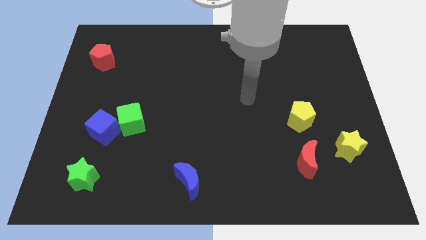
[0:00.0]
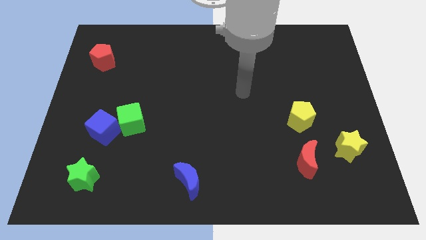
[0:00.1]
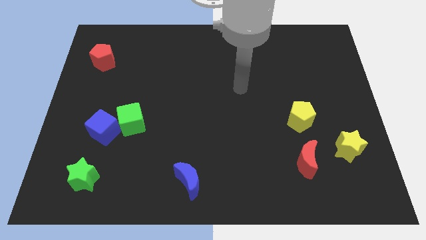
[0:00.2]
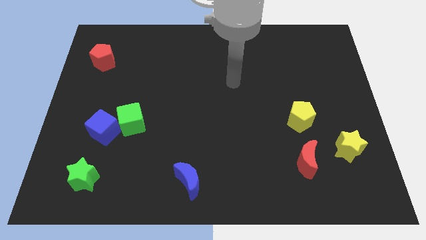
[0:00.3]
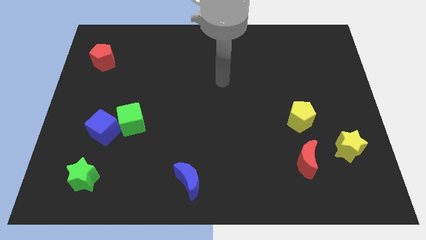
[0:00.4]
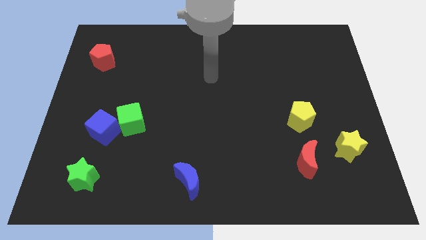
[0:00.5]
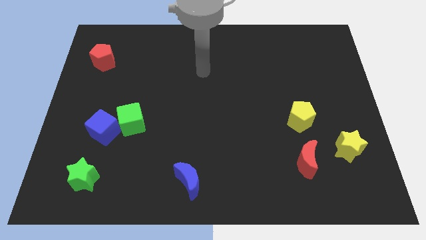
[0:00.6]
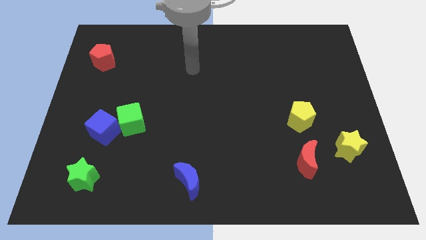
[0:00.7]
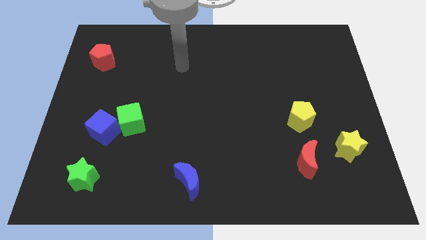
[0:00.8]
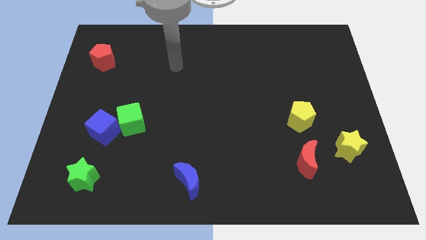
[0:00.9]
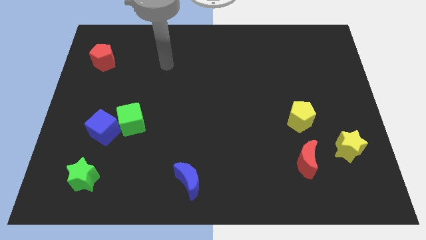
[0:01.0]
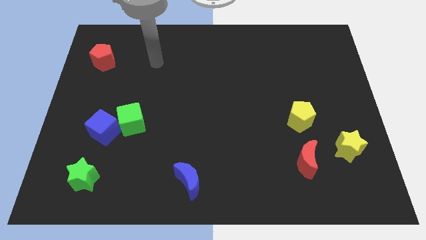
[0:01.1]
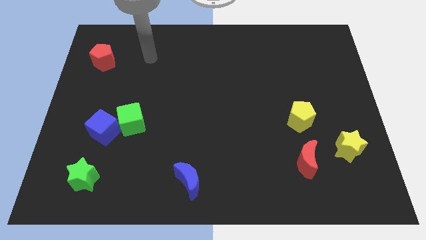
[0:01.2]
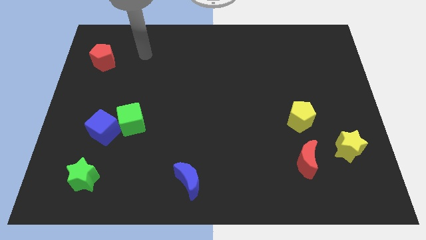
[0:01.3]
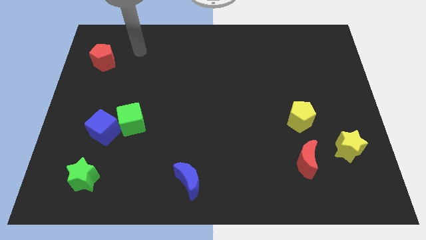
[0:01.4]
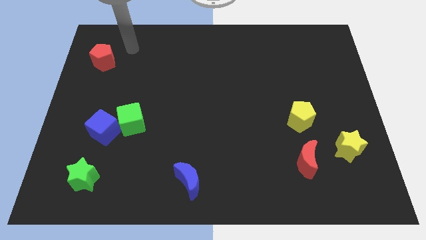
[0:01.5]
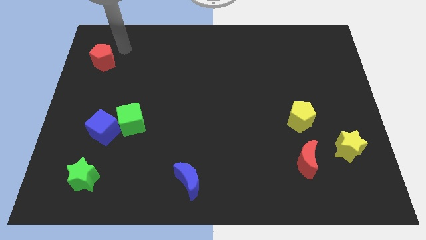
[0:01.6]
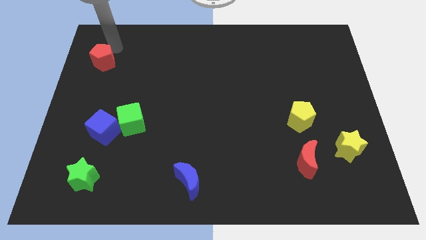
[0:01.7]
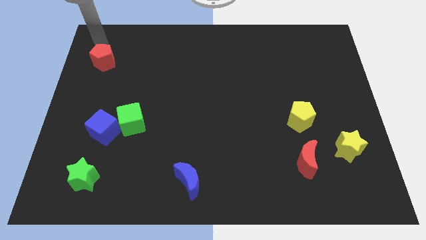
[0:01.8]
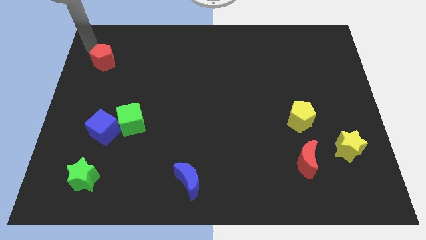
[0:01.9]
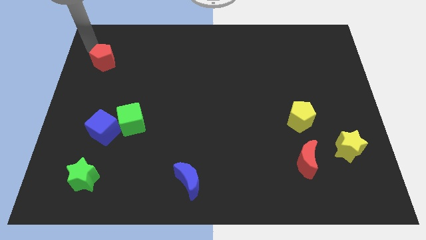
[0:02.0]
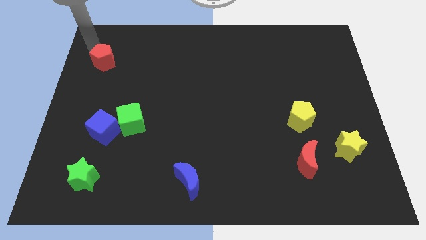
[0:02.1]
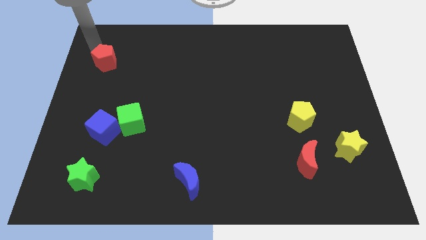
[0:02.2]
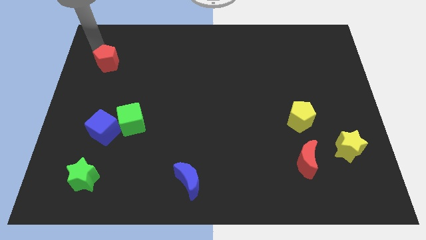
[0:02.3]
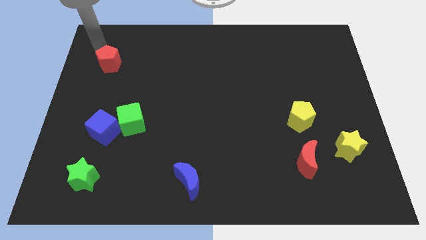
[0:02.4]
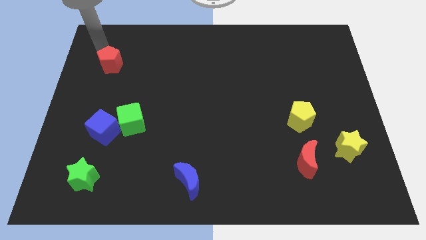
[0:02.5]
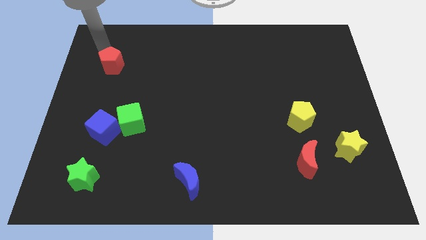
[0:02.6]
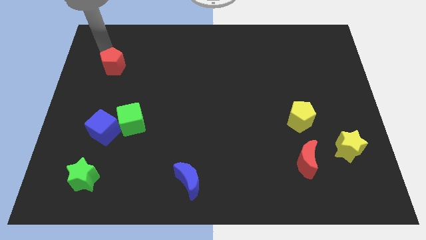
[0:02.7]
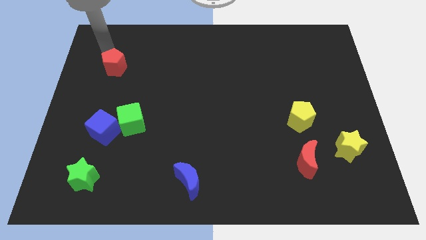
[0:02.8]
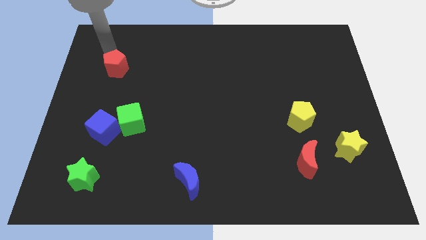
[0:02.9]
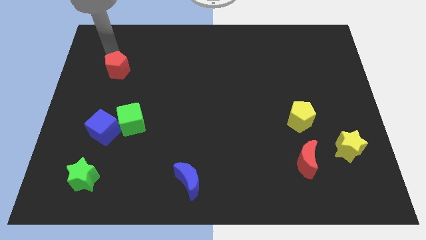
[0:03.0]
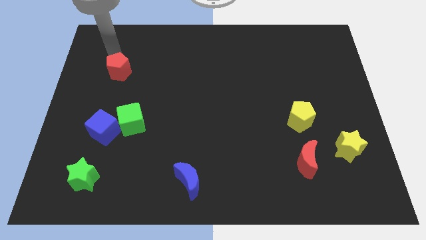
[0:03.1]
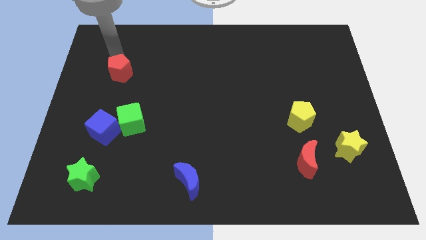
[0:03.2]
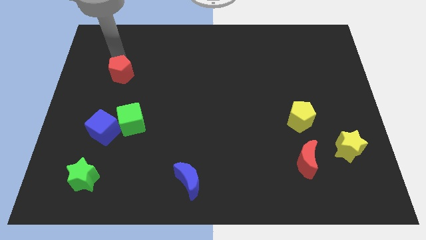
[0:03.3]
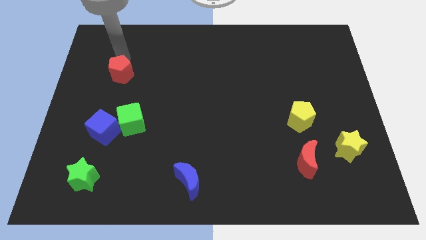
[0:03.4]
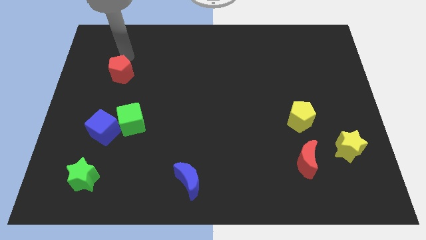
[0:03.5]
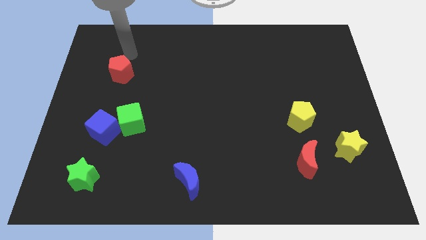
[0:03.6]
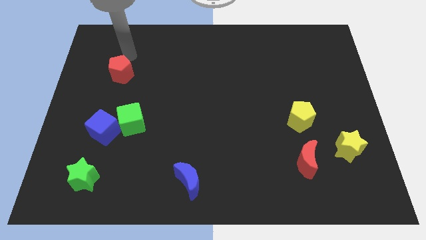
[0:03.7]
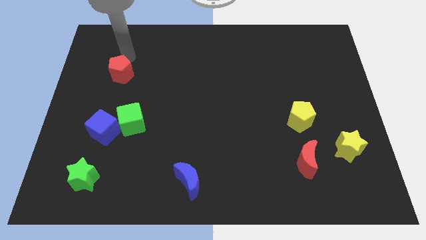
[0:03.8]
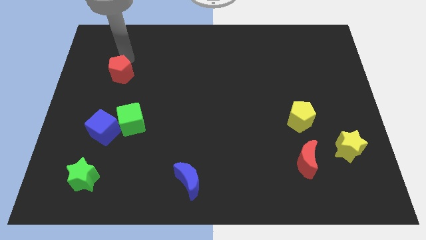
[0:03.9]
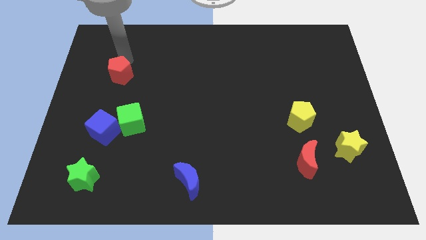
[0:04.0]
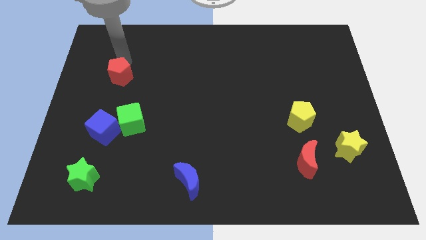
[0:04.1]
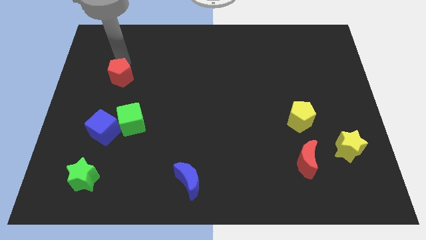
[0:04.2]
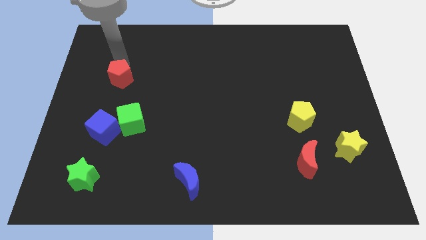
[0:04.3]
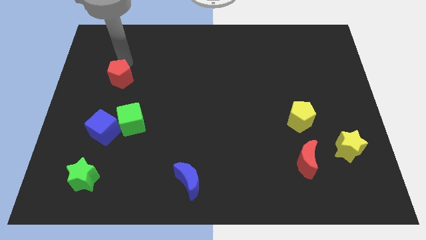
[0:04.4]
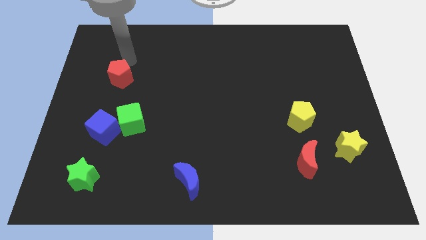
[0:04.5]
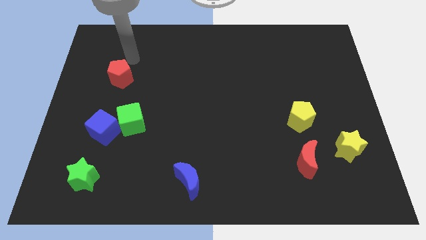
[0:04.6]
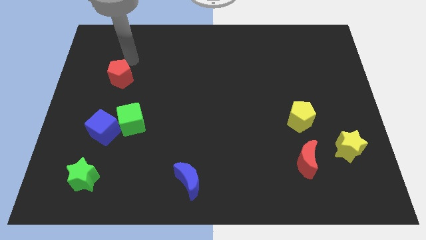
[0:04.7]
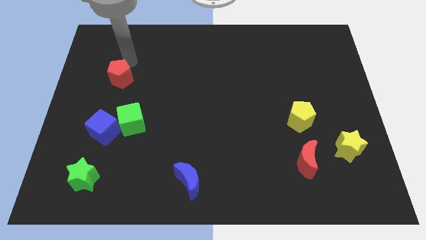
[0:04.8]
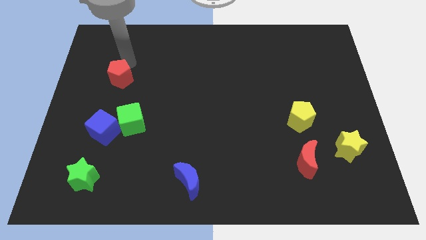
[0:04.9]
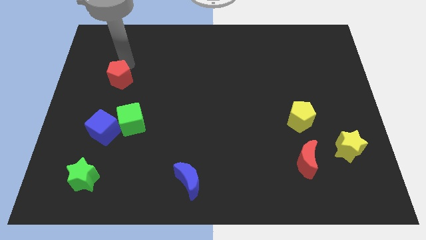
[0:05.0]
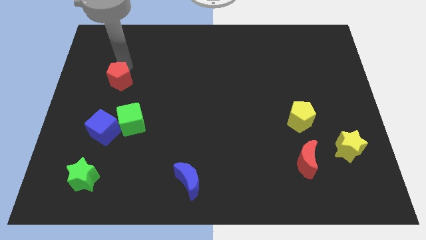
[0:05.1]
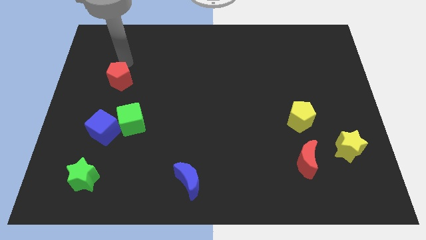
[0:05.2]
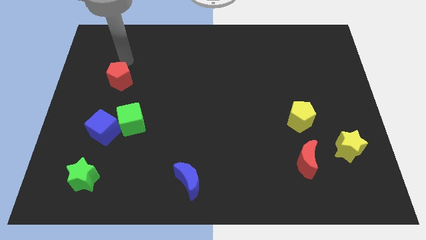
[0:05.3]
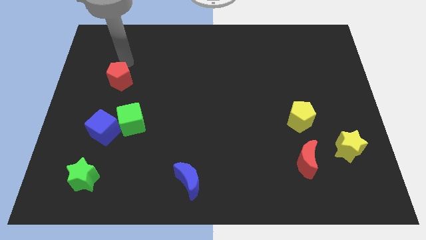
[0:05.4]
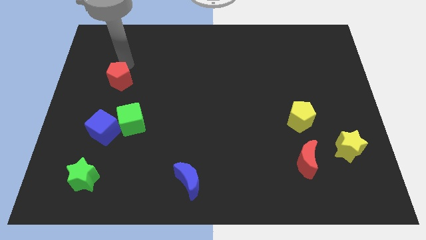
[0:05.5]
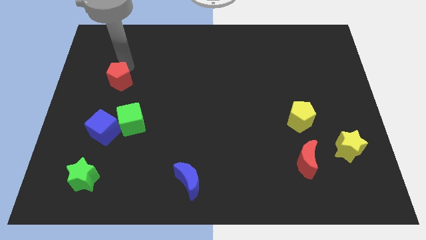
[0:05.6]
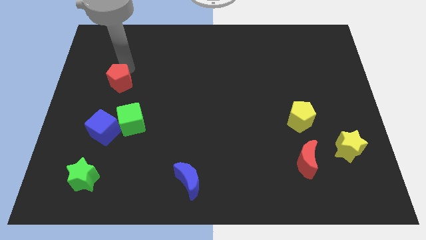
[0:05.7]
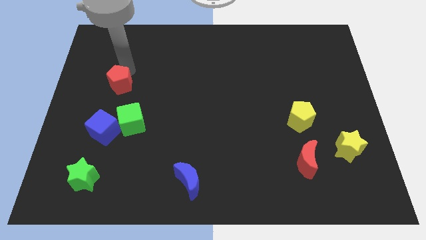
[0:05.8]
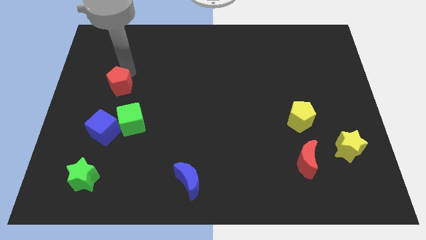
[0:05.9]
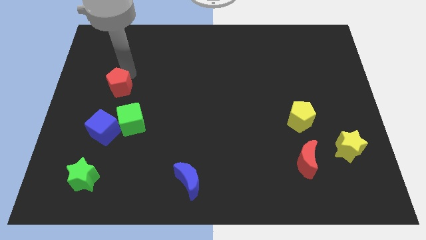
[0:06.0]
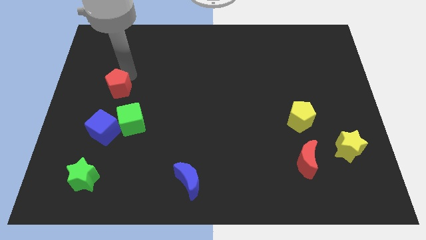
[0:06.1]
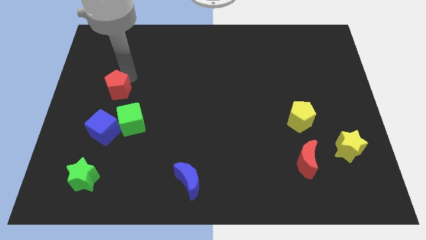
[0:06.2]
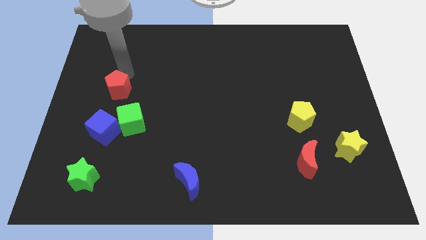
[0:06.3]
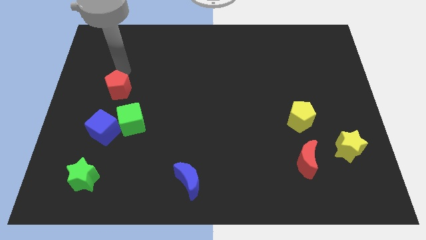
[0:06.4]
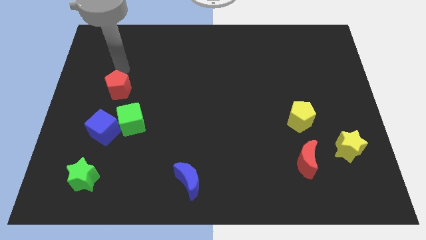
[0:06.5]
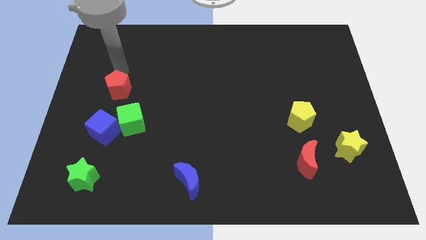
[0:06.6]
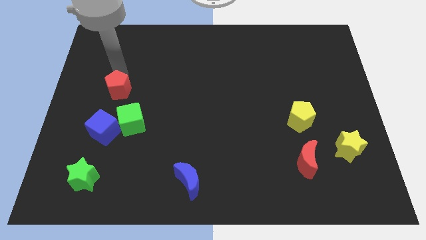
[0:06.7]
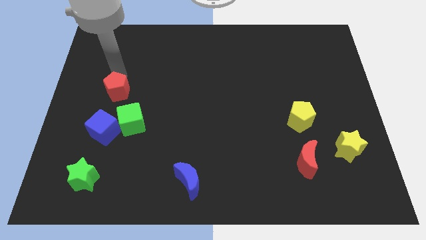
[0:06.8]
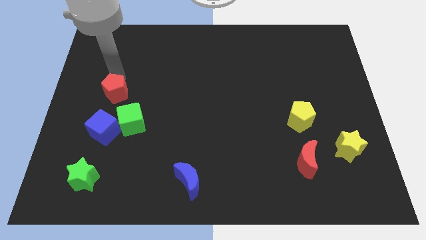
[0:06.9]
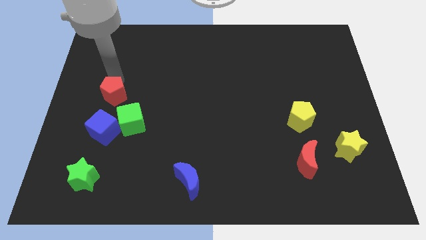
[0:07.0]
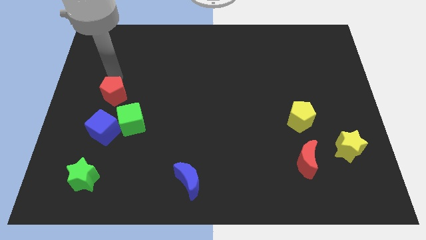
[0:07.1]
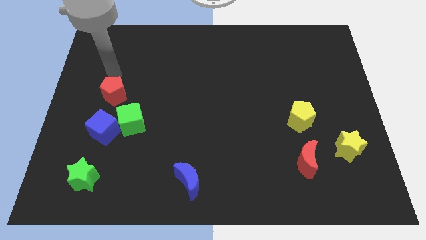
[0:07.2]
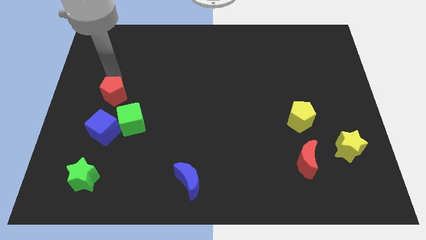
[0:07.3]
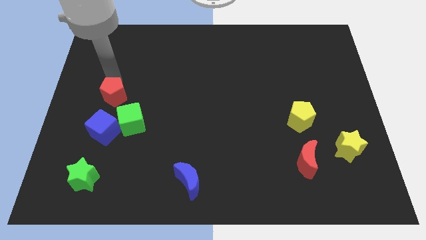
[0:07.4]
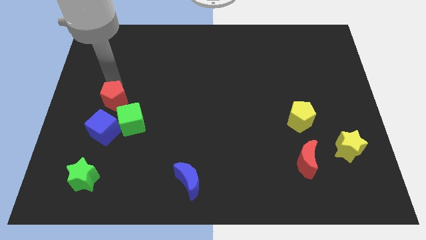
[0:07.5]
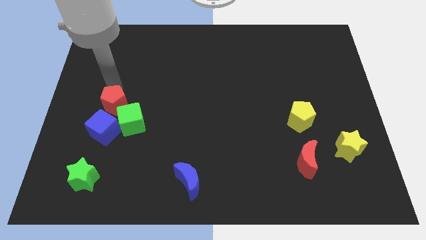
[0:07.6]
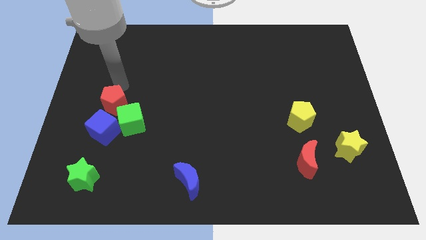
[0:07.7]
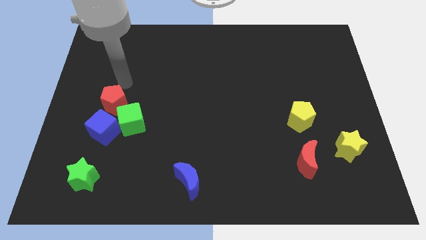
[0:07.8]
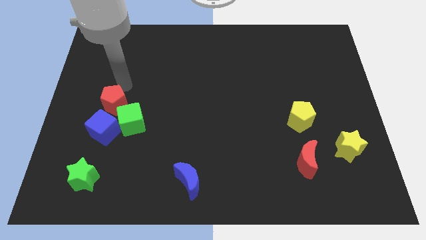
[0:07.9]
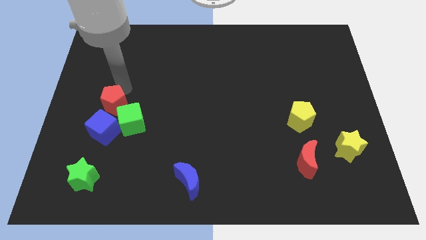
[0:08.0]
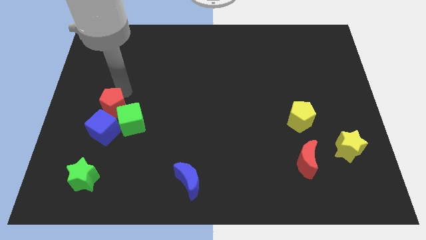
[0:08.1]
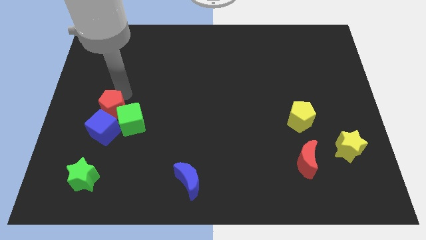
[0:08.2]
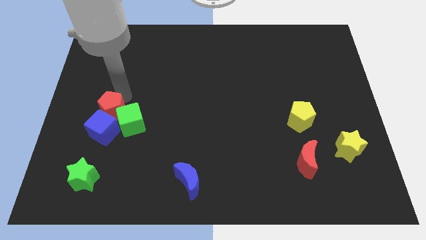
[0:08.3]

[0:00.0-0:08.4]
push the red pentagon towards the blue cube
